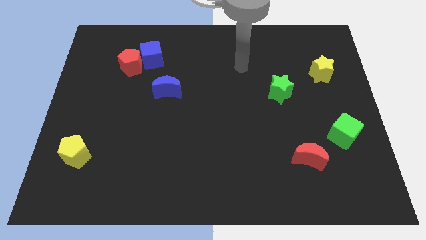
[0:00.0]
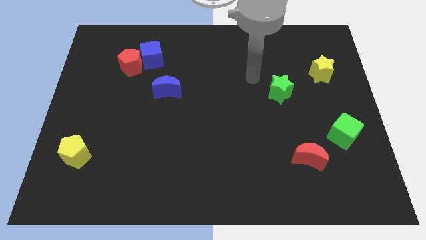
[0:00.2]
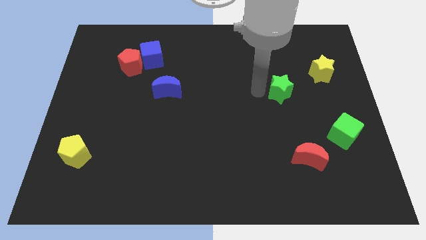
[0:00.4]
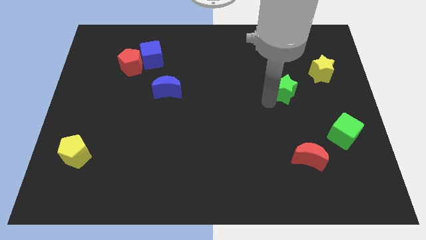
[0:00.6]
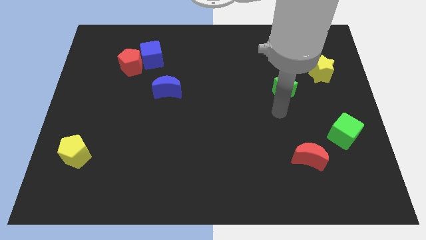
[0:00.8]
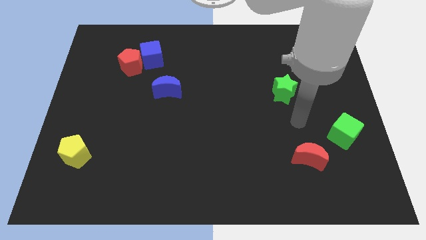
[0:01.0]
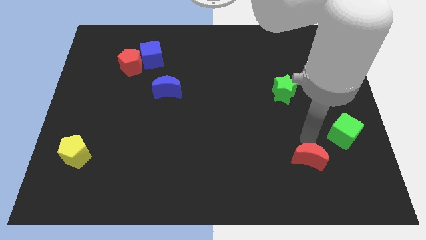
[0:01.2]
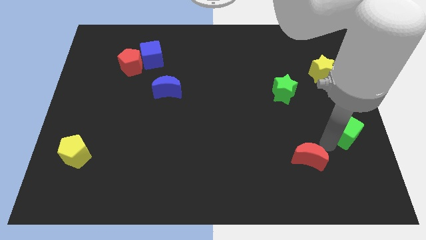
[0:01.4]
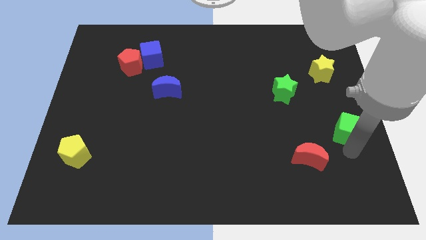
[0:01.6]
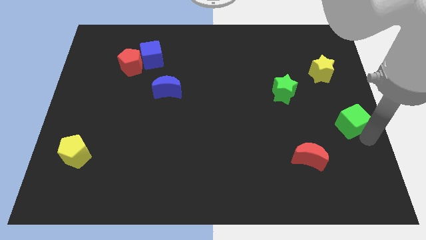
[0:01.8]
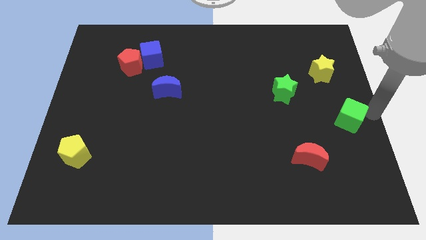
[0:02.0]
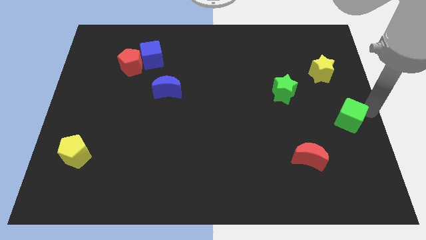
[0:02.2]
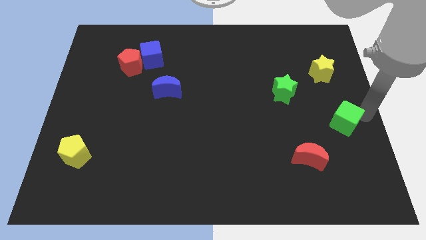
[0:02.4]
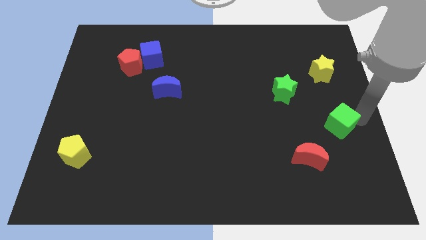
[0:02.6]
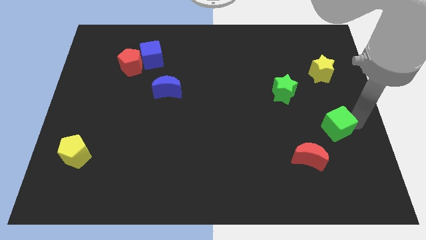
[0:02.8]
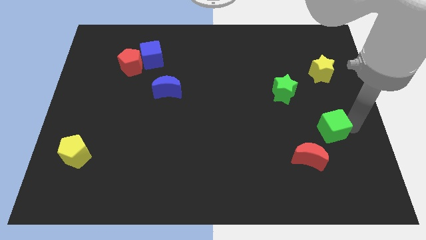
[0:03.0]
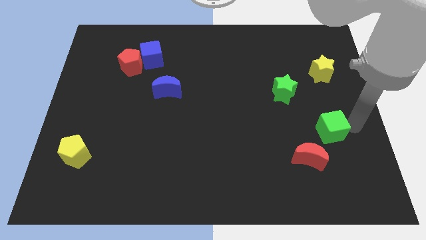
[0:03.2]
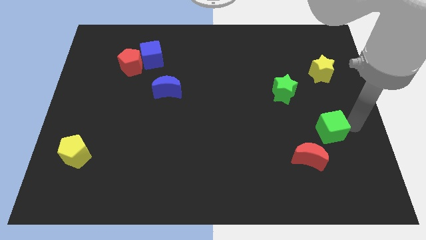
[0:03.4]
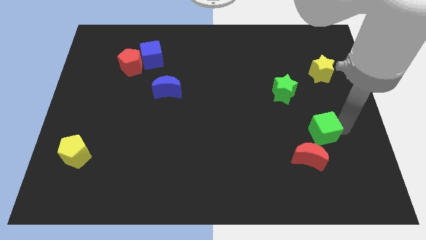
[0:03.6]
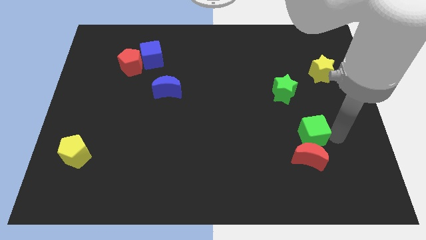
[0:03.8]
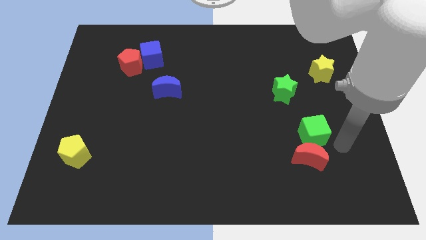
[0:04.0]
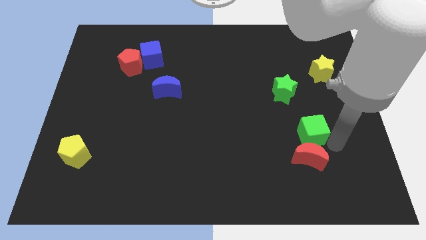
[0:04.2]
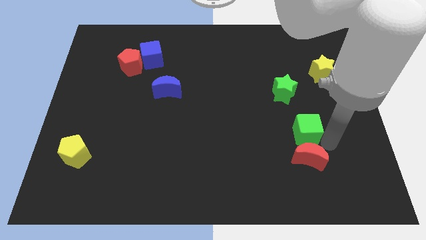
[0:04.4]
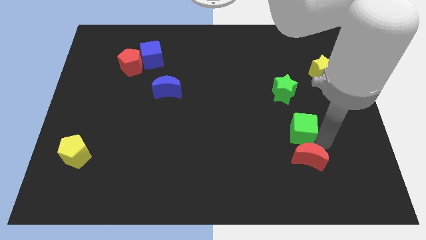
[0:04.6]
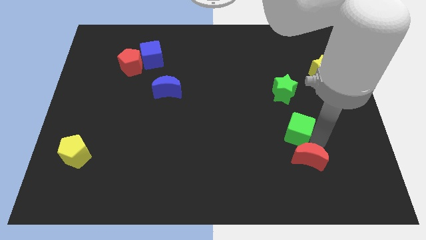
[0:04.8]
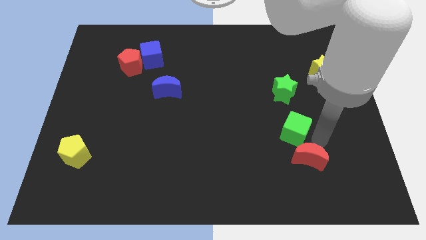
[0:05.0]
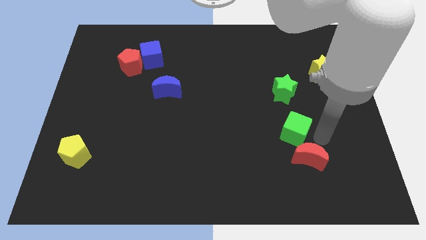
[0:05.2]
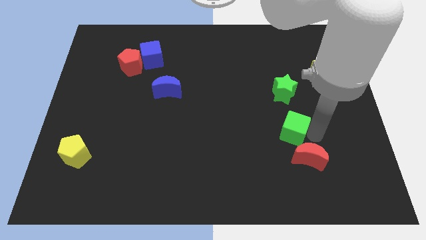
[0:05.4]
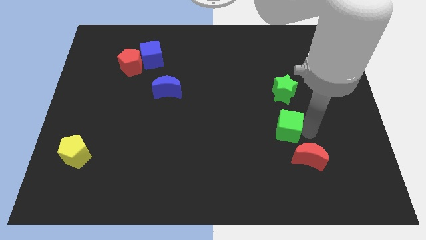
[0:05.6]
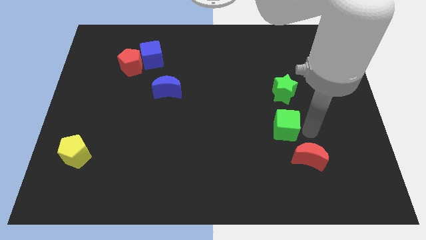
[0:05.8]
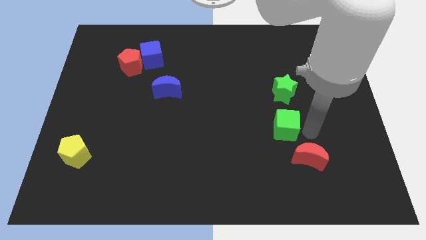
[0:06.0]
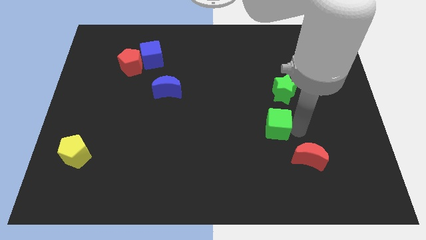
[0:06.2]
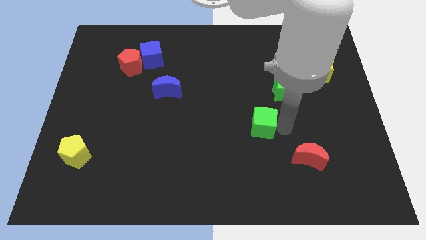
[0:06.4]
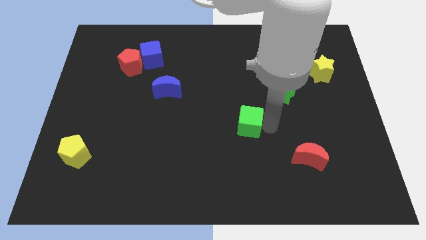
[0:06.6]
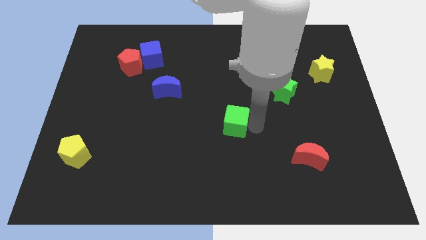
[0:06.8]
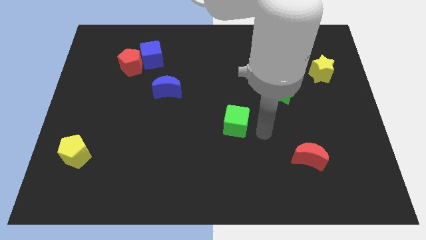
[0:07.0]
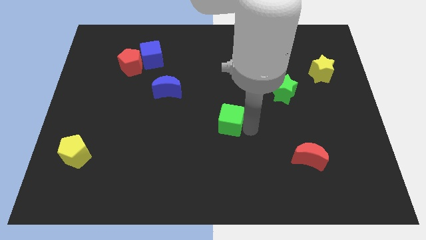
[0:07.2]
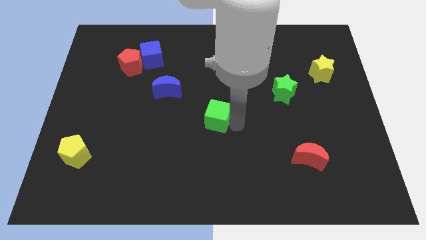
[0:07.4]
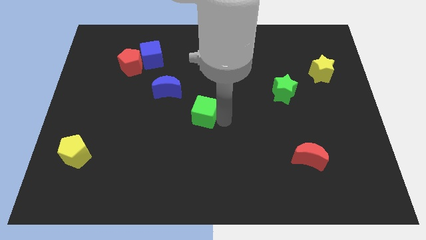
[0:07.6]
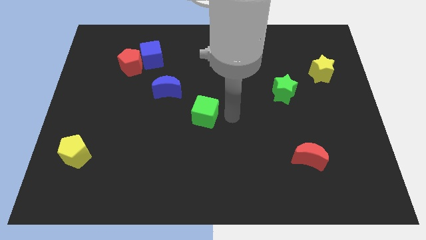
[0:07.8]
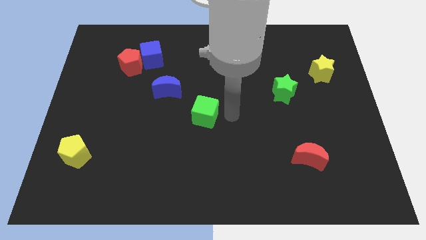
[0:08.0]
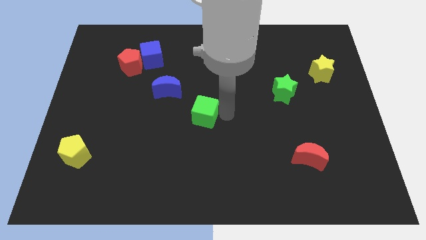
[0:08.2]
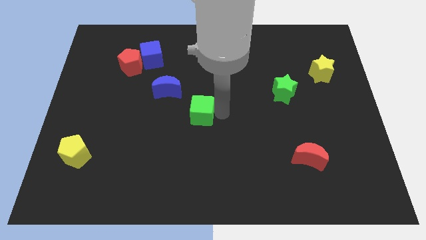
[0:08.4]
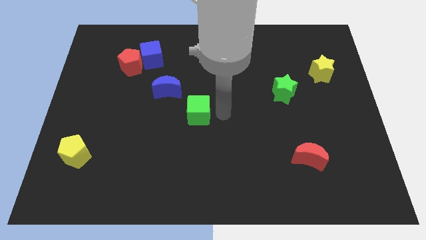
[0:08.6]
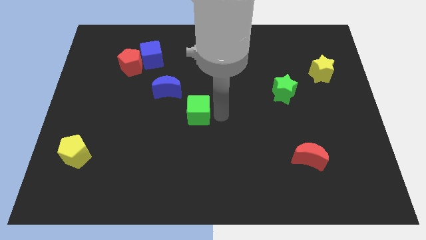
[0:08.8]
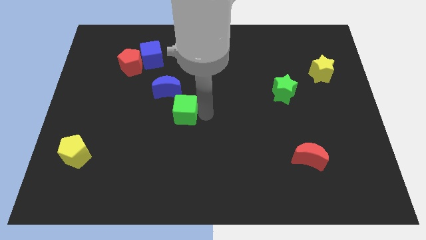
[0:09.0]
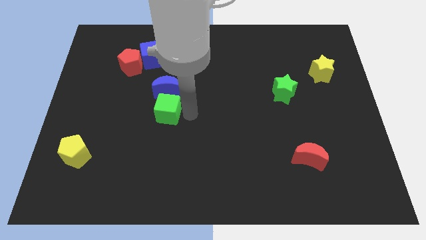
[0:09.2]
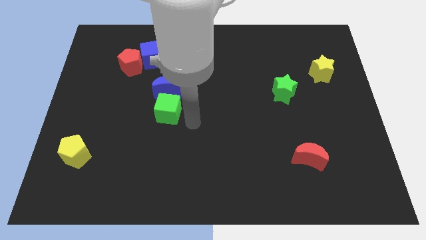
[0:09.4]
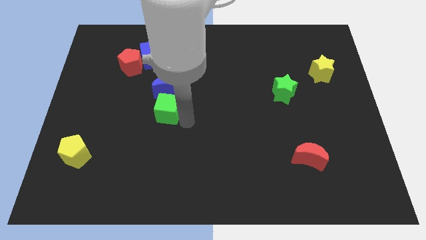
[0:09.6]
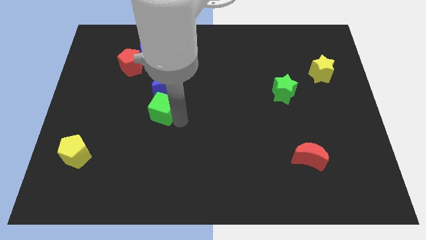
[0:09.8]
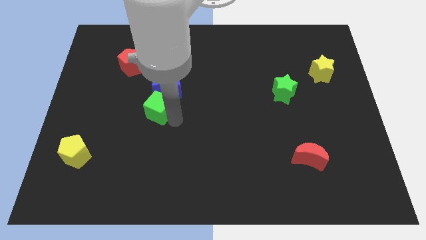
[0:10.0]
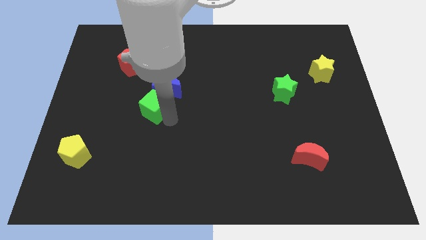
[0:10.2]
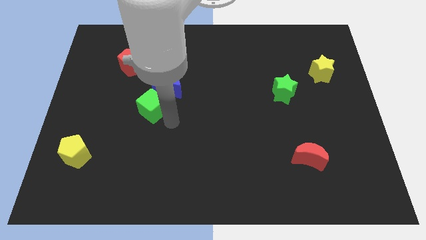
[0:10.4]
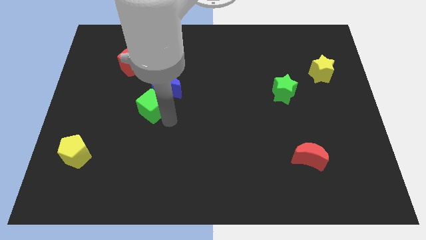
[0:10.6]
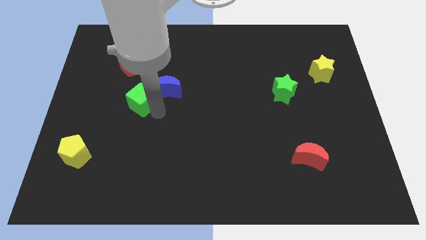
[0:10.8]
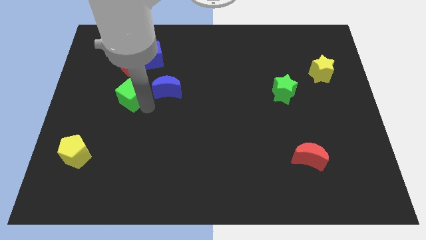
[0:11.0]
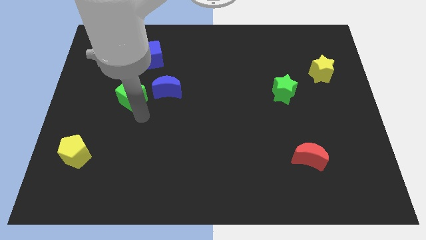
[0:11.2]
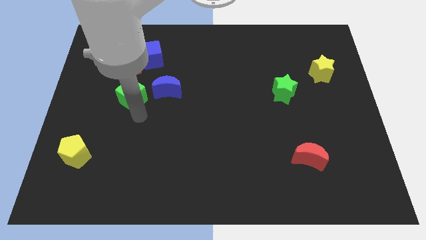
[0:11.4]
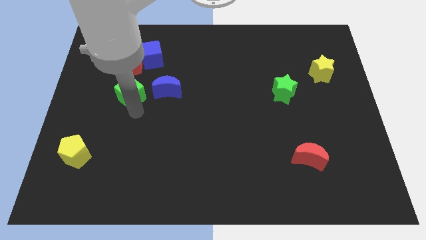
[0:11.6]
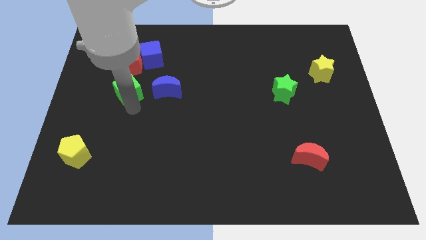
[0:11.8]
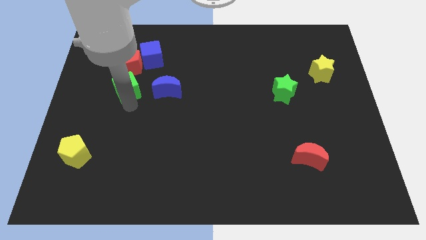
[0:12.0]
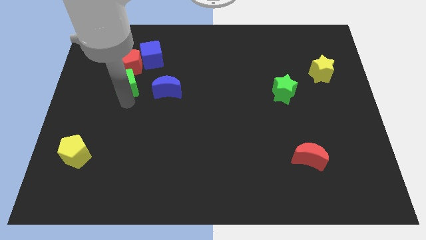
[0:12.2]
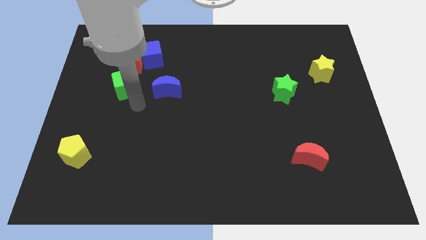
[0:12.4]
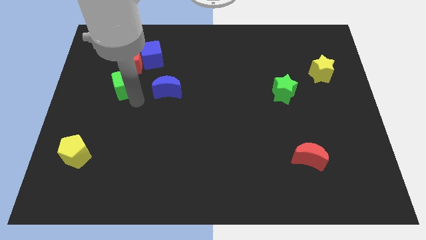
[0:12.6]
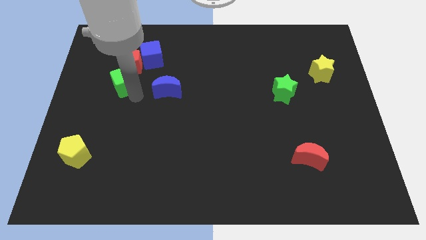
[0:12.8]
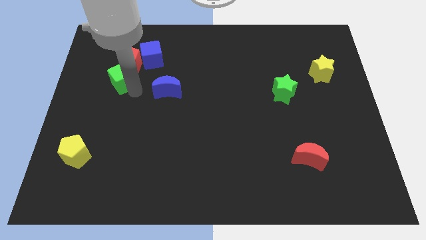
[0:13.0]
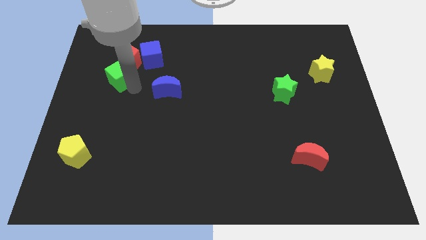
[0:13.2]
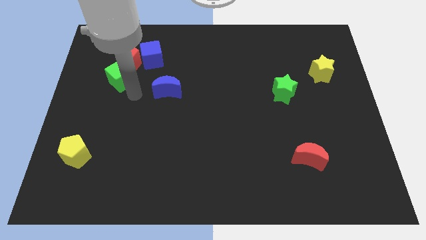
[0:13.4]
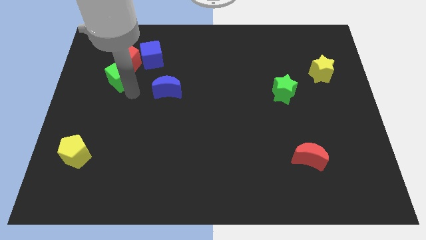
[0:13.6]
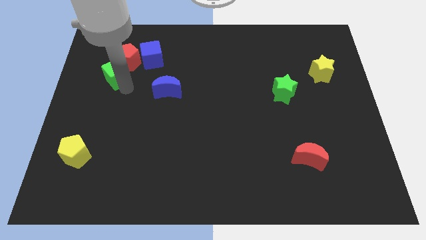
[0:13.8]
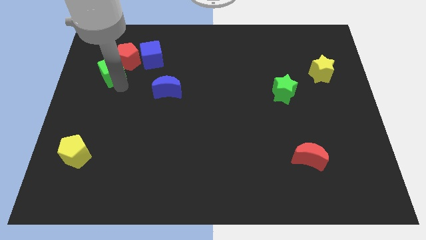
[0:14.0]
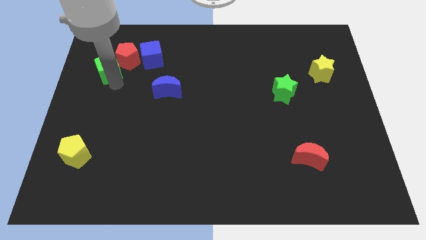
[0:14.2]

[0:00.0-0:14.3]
slide the green cube to the left of the blue cube
